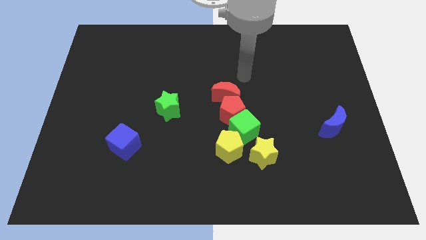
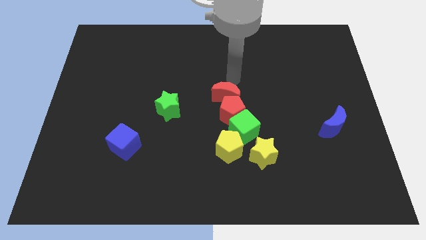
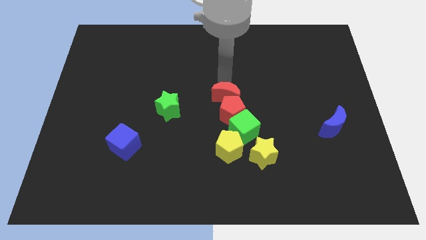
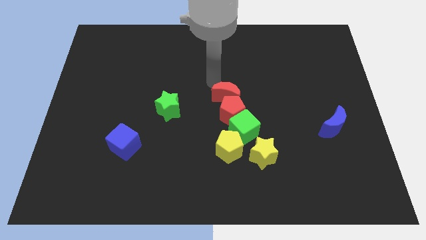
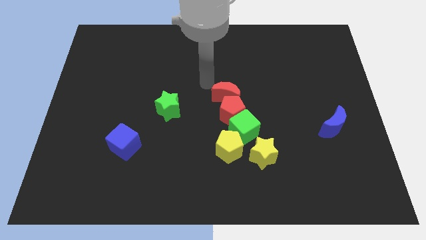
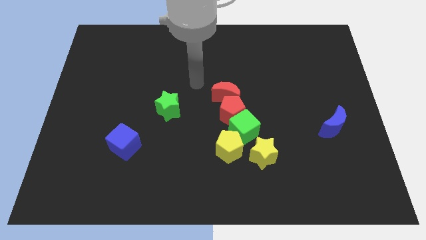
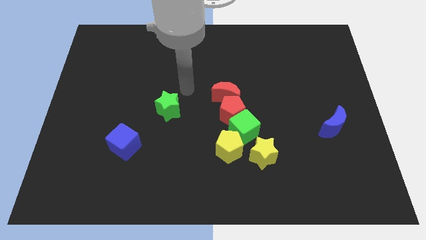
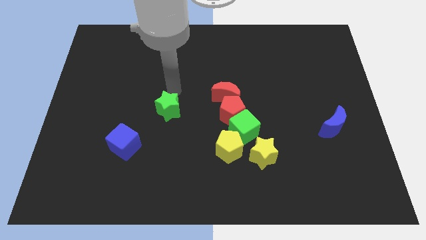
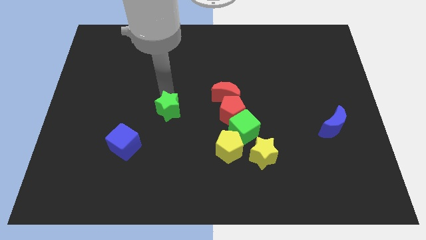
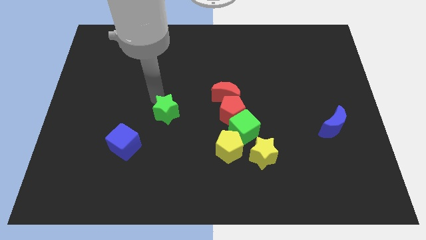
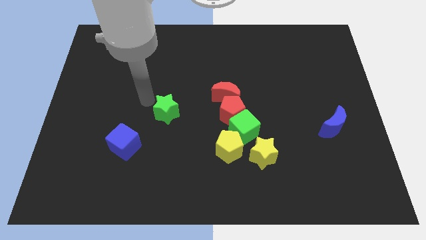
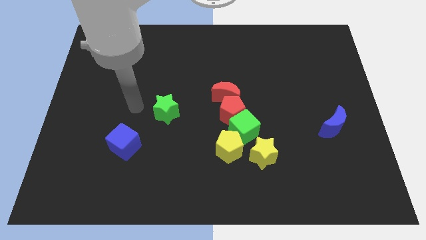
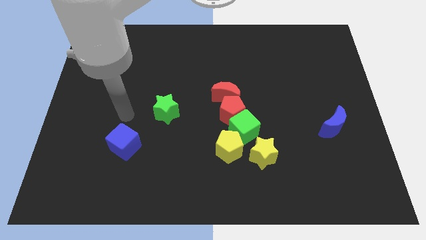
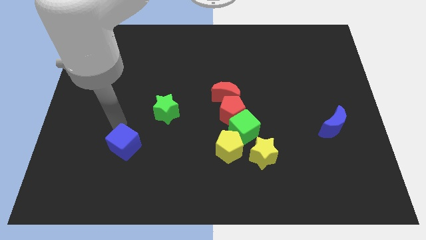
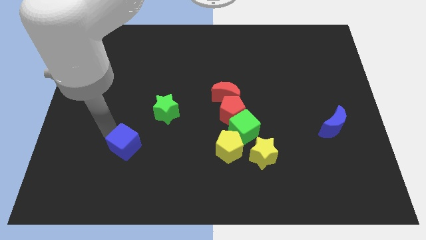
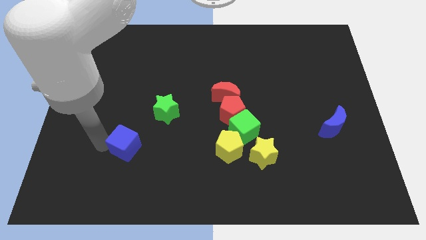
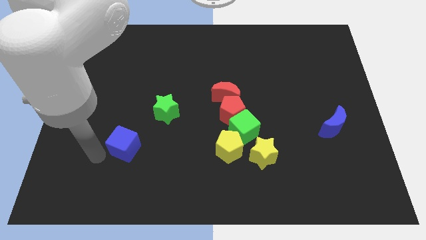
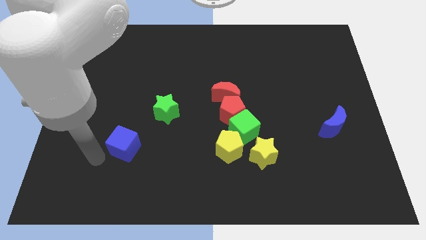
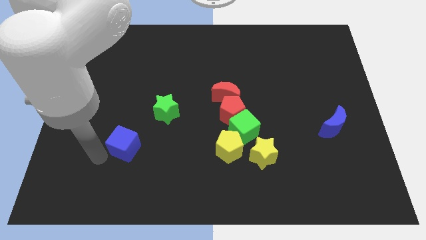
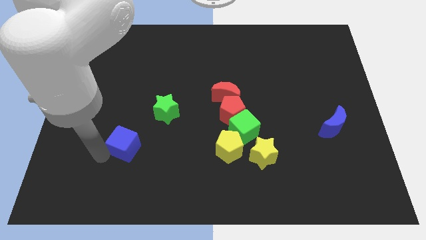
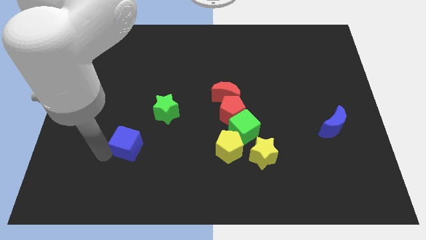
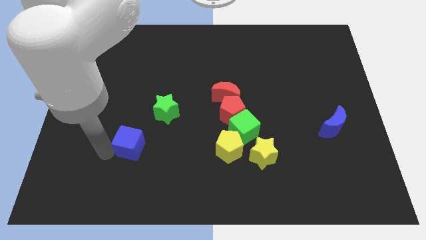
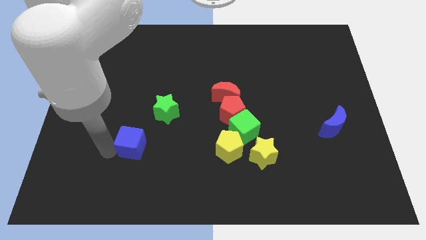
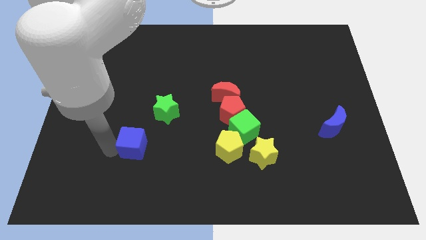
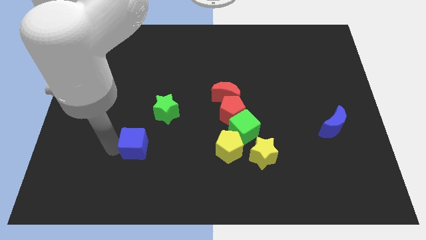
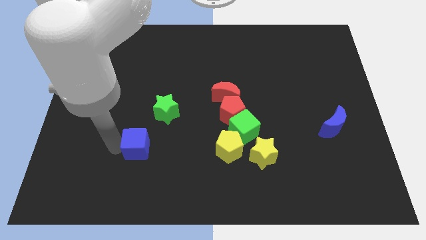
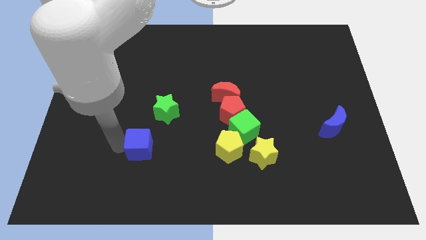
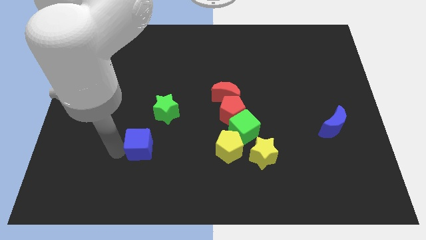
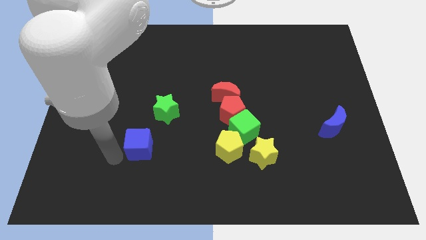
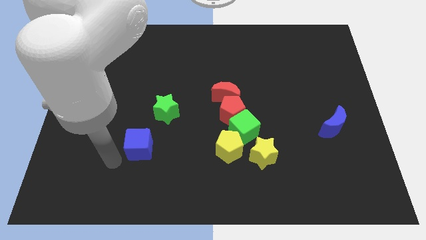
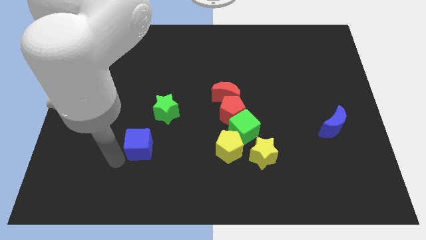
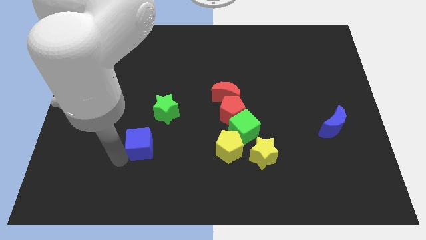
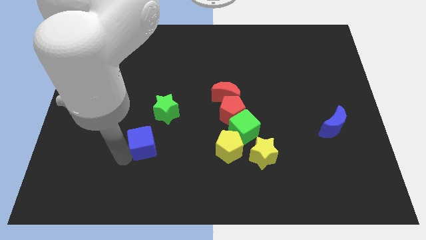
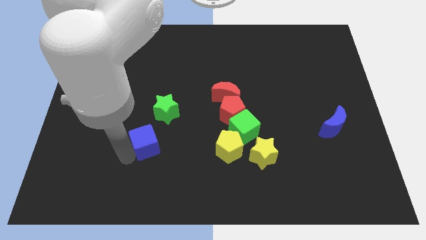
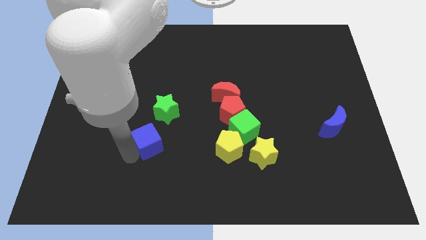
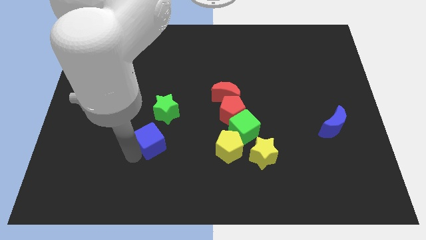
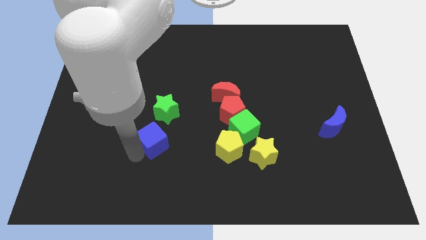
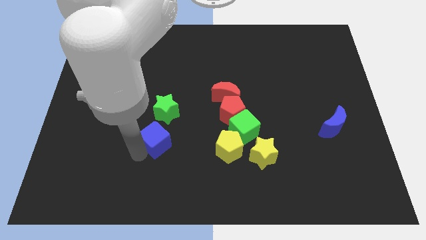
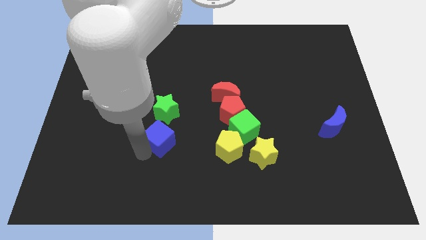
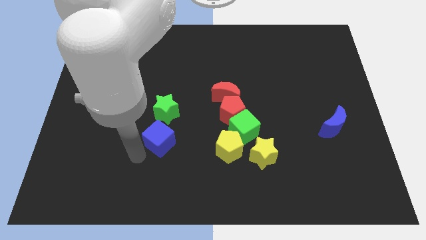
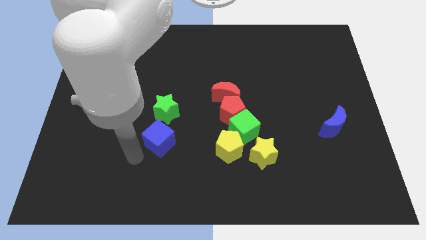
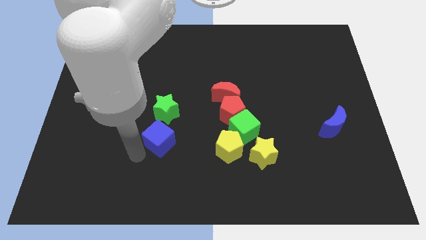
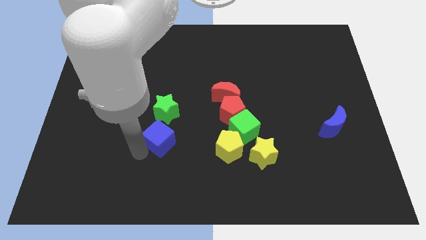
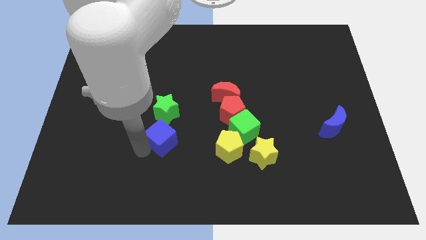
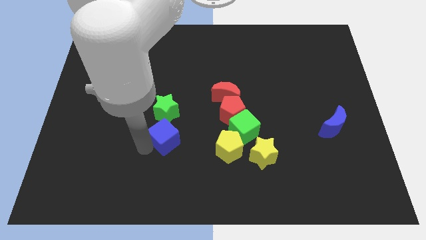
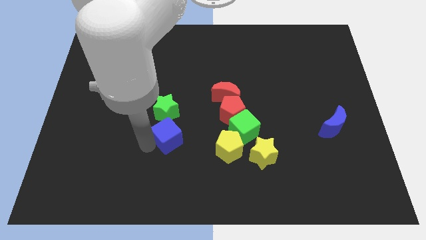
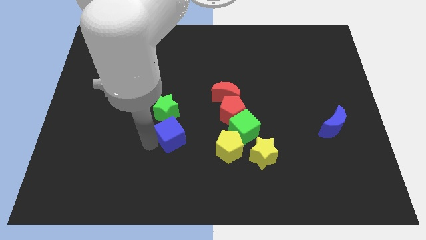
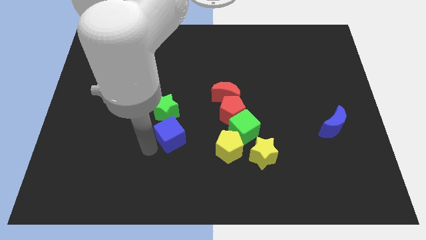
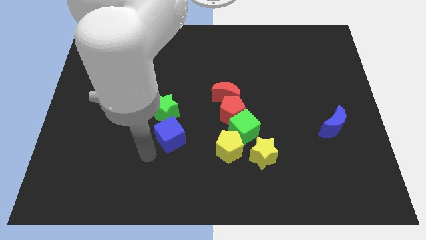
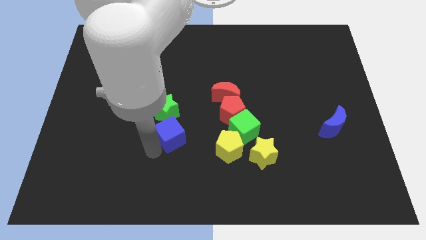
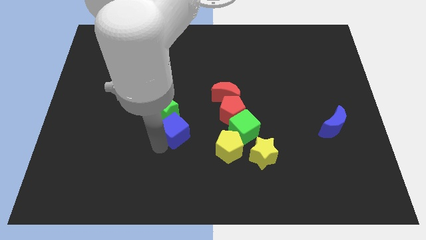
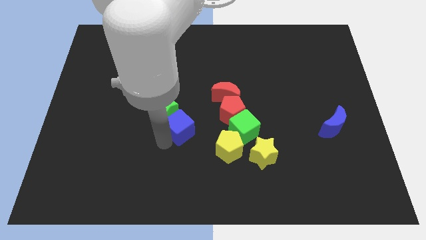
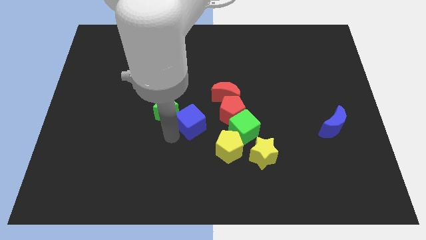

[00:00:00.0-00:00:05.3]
move the blue cube right of the green star
